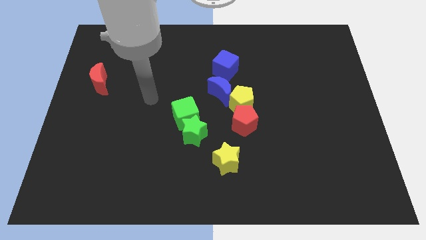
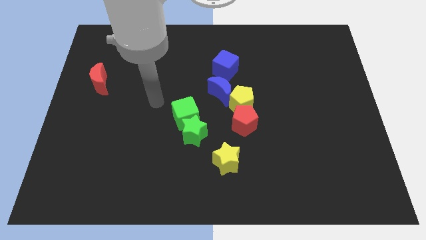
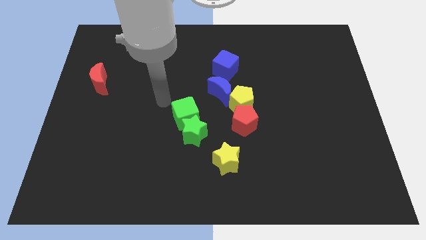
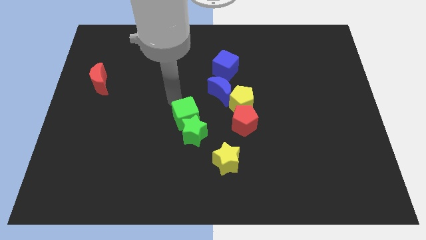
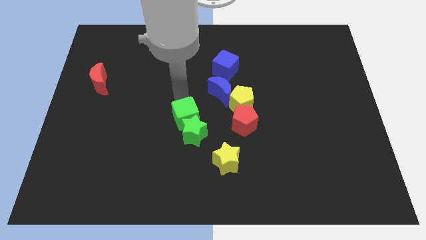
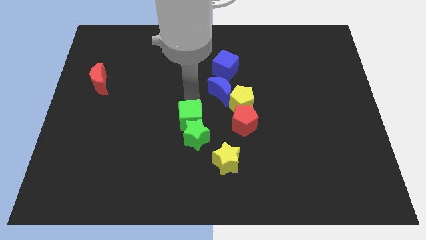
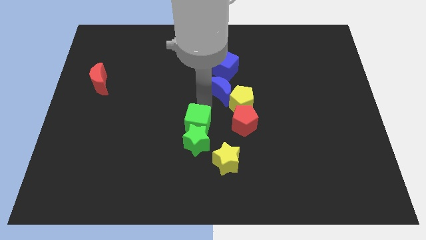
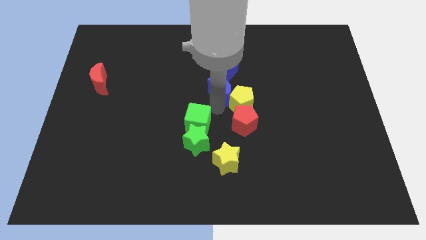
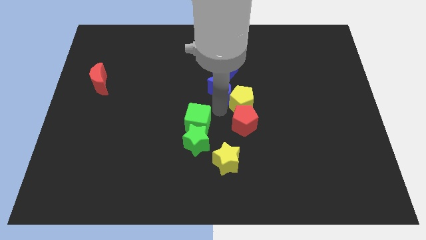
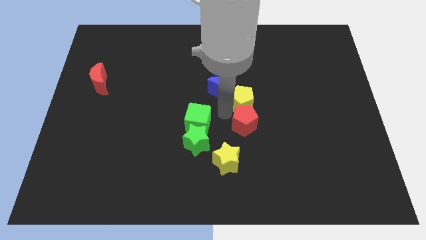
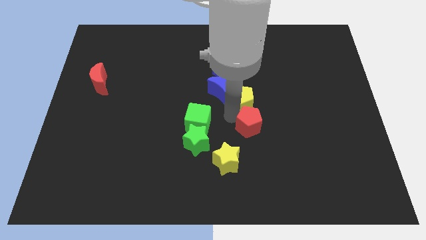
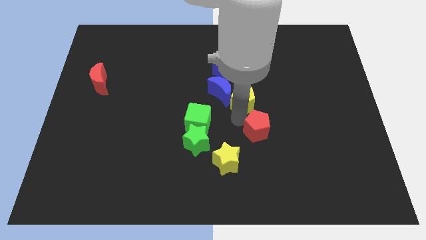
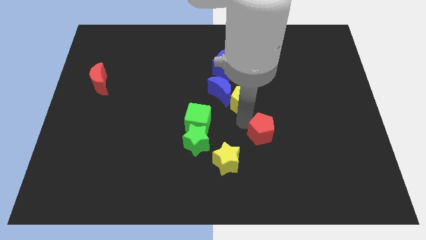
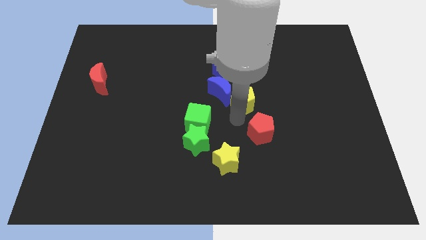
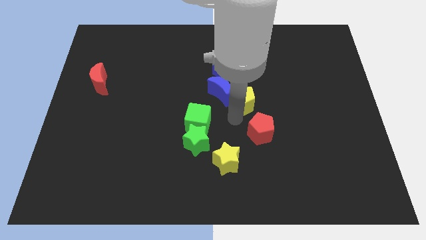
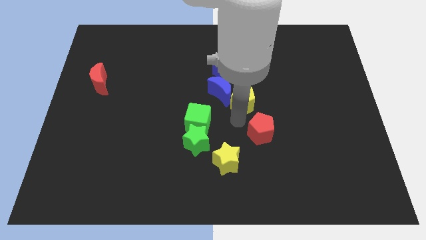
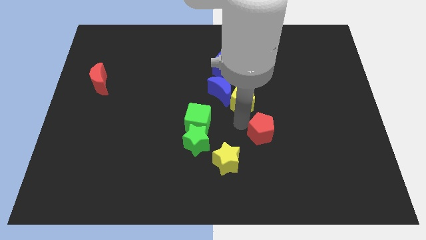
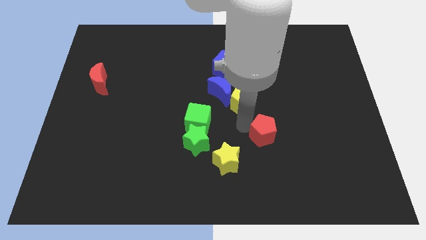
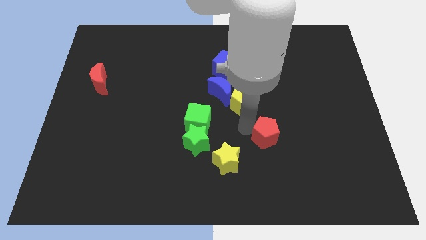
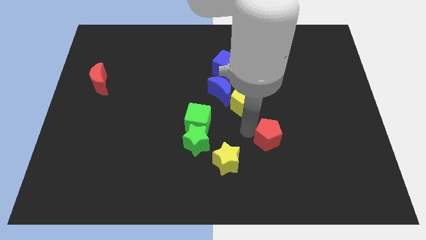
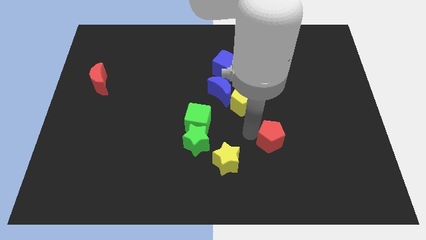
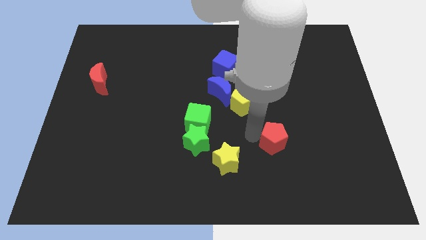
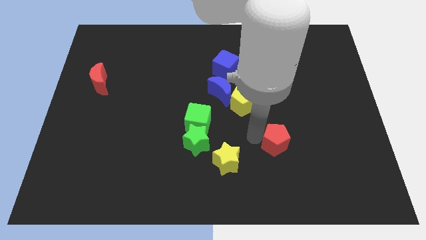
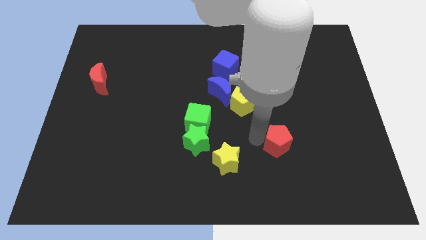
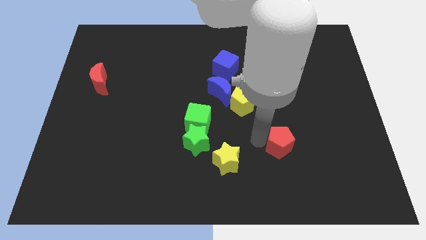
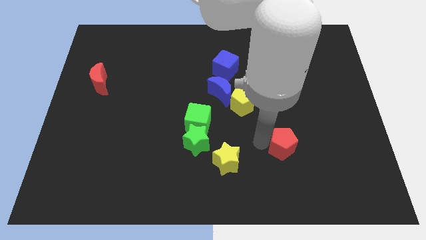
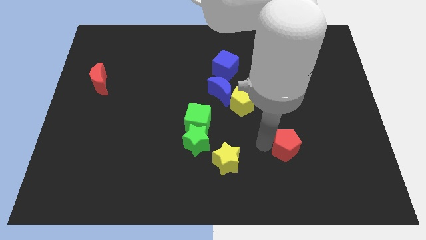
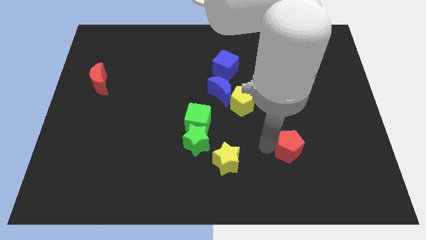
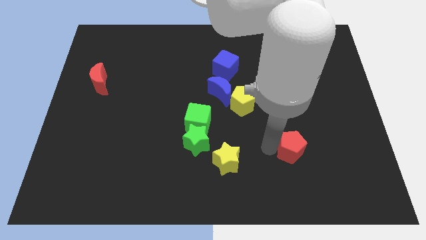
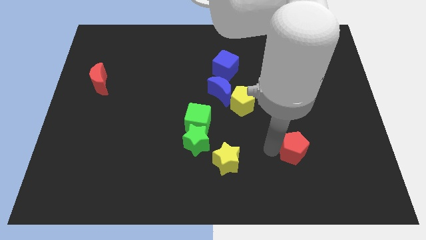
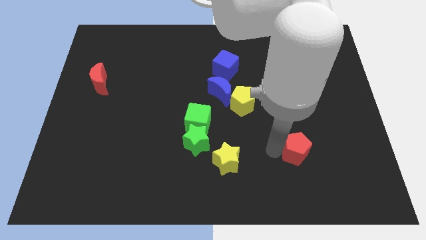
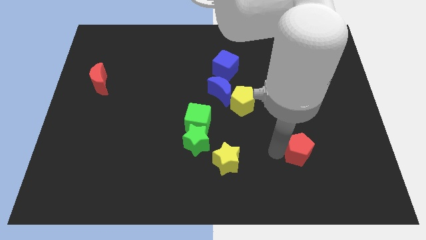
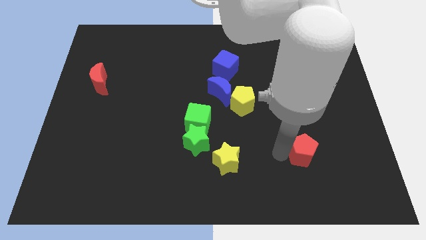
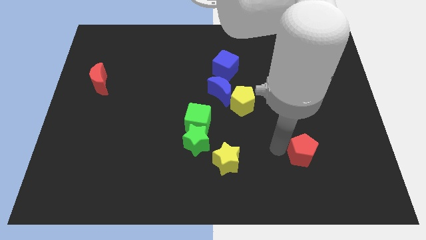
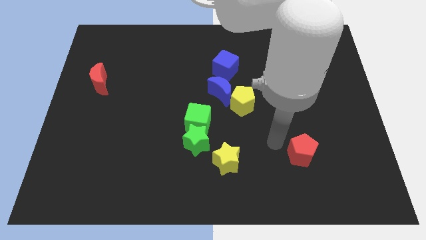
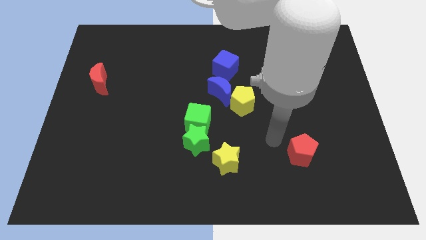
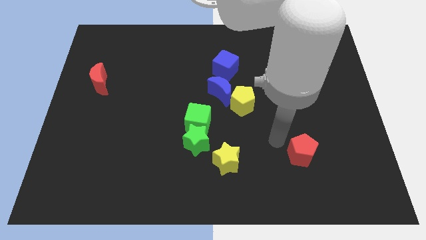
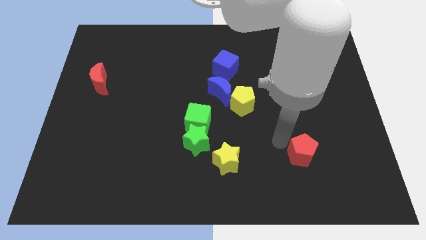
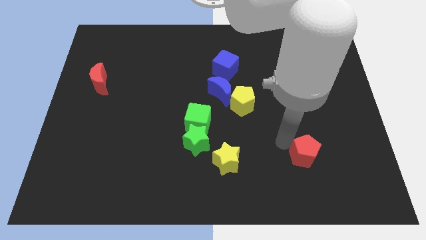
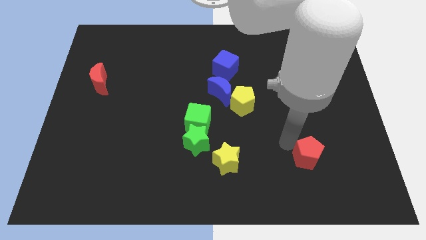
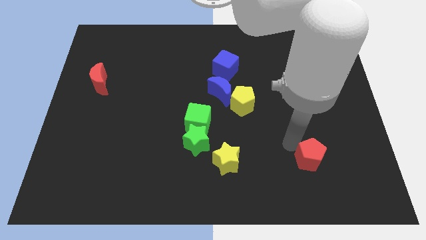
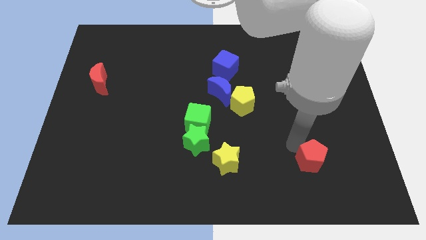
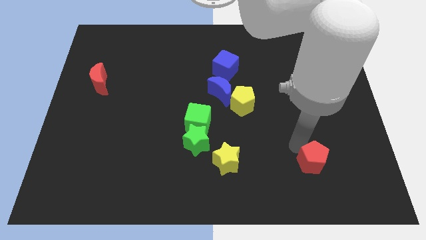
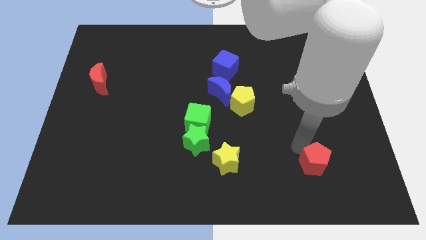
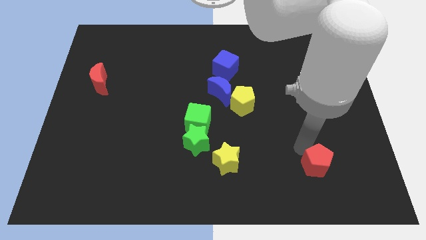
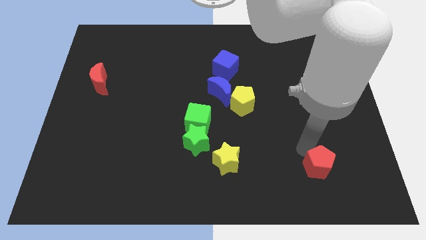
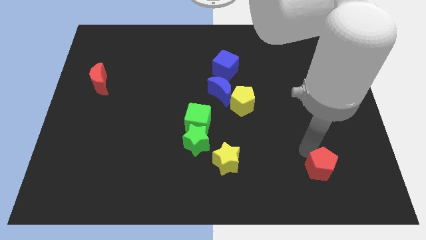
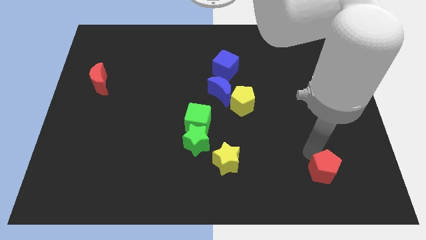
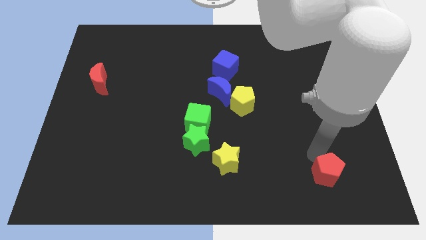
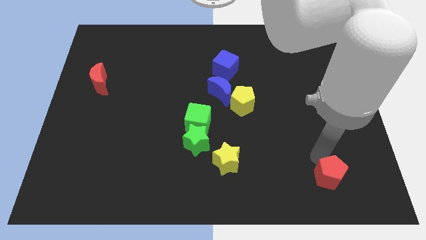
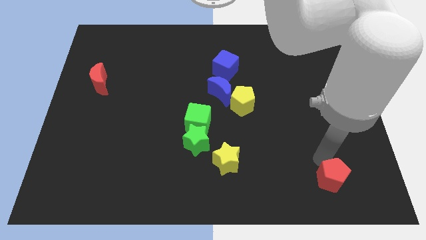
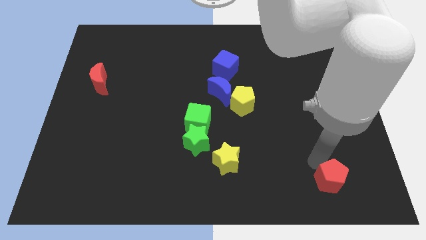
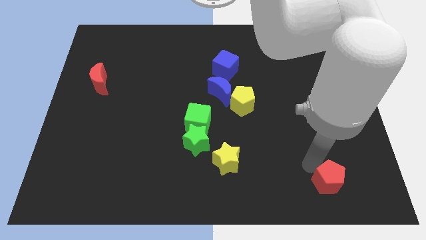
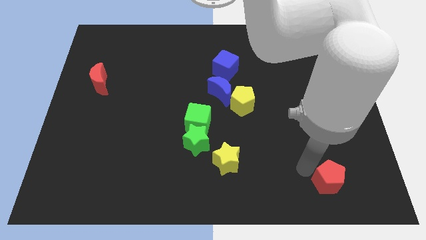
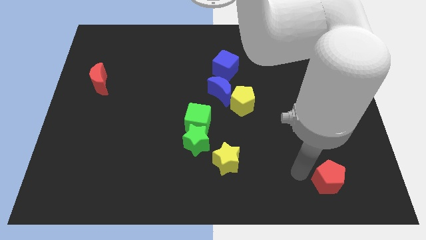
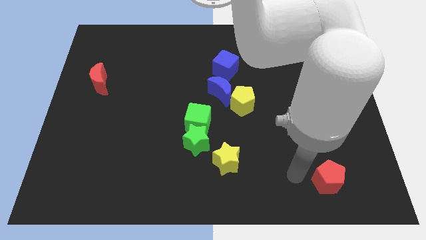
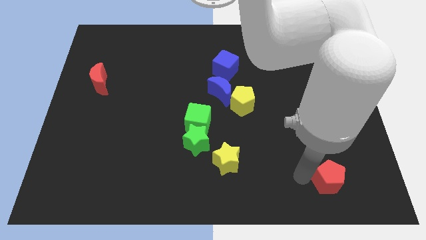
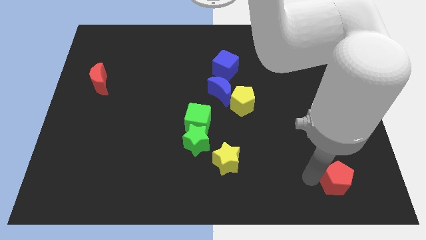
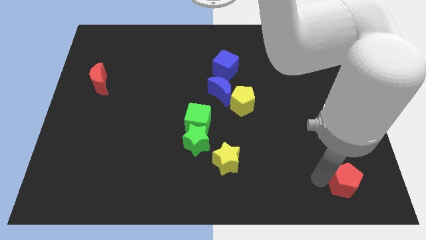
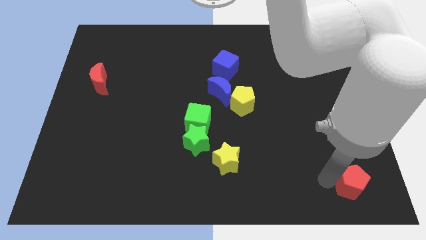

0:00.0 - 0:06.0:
push the red pentagon to the bottom right

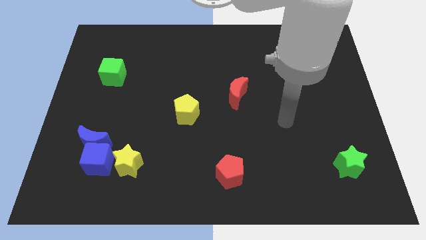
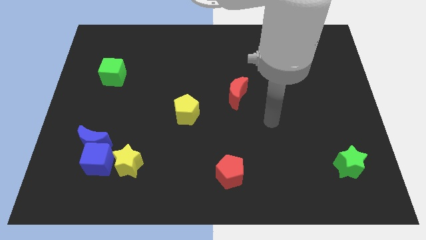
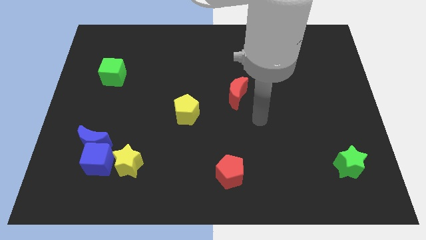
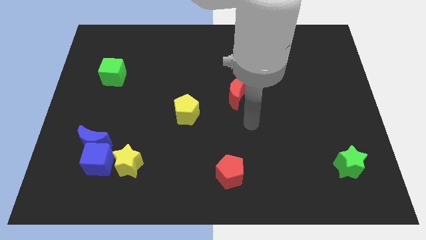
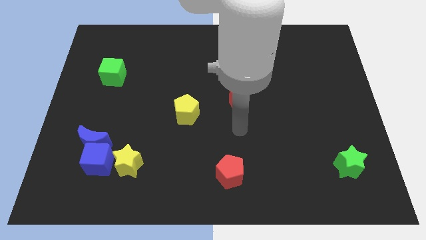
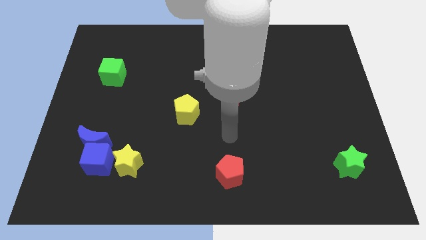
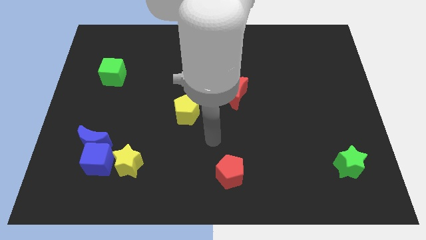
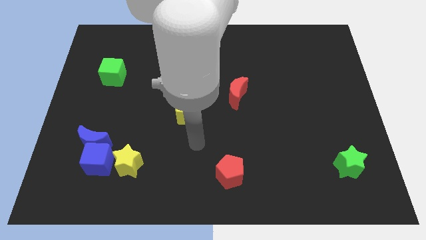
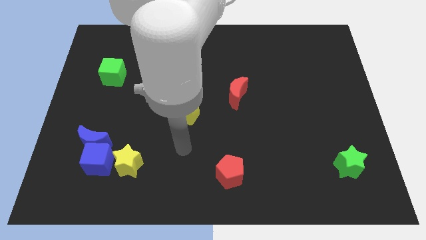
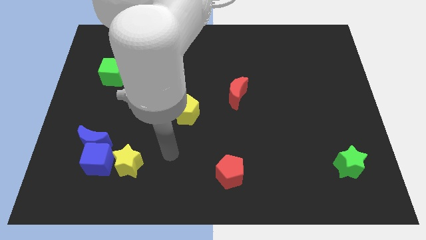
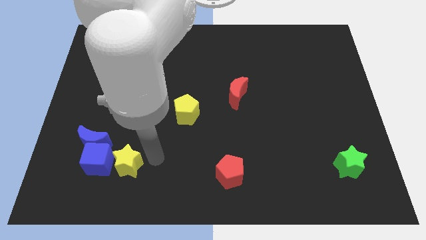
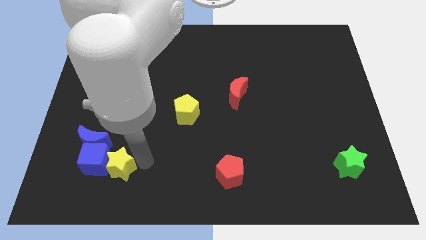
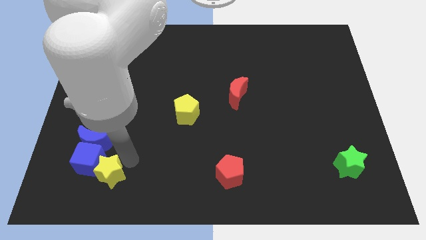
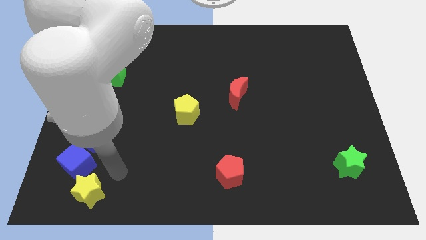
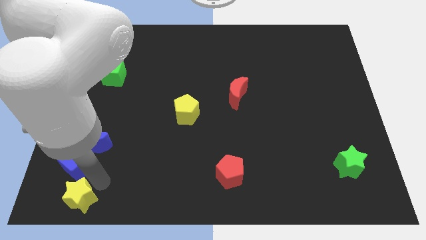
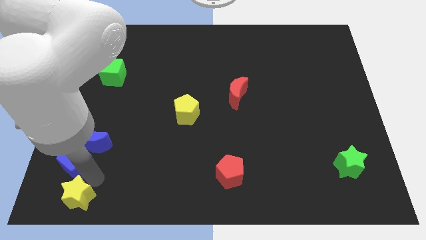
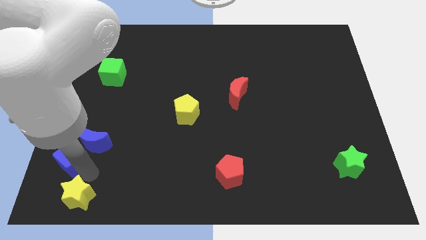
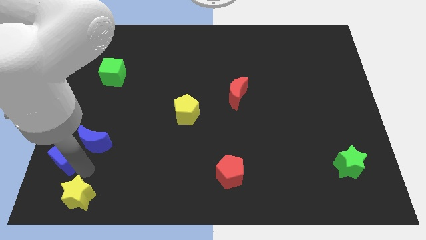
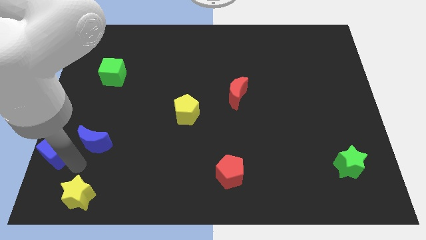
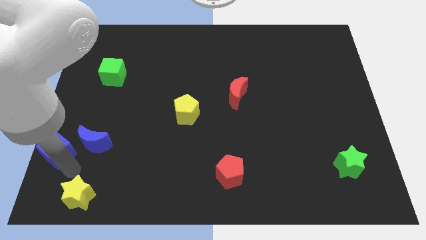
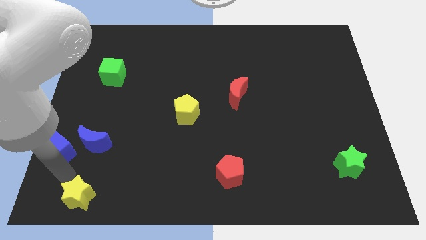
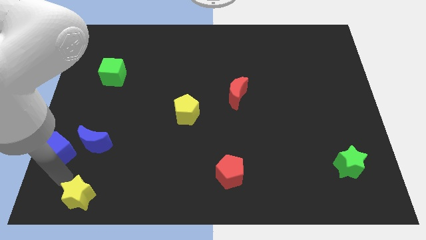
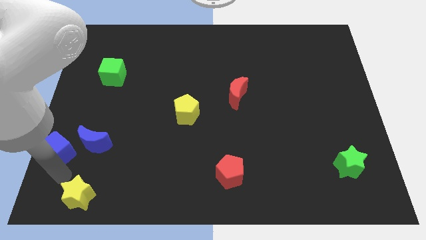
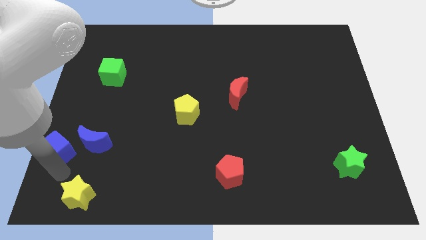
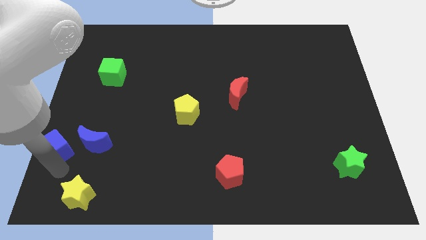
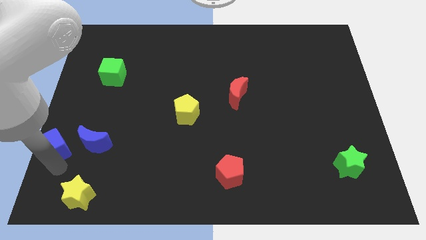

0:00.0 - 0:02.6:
put the blue cube to the center left
